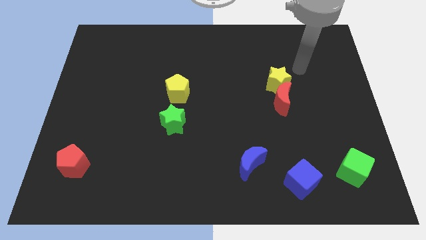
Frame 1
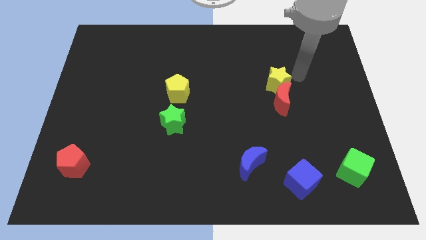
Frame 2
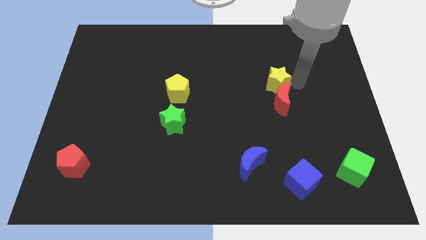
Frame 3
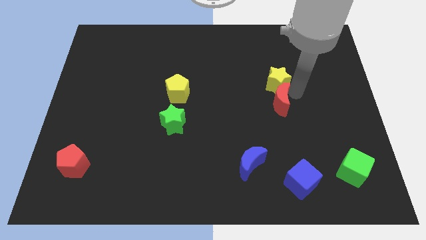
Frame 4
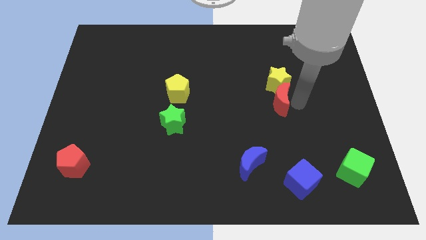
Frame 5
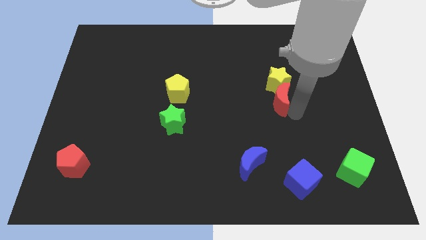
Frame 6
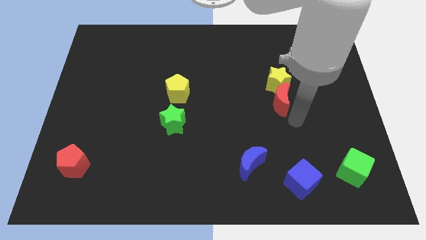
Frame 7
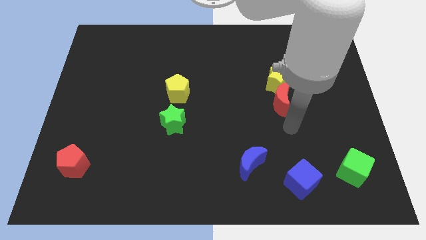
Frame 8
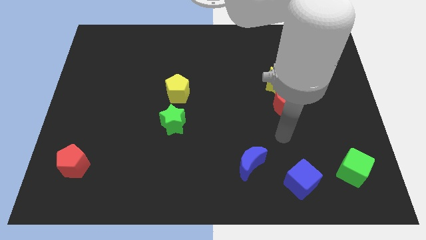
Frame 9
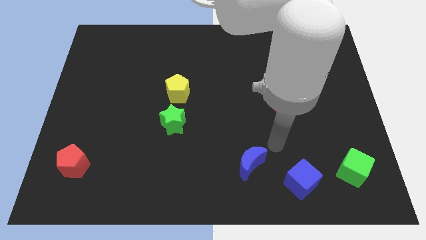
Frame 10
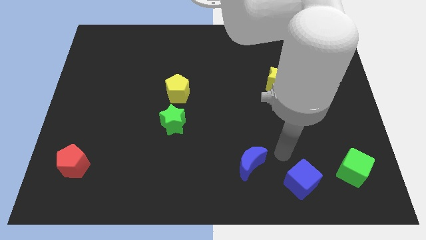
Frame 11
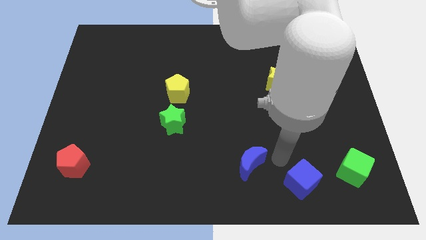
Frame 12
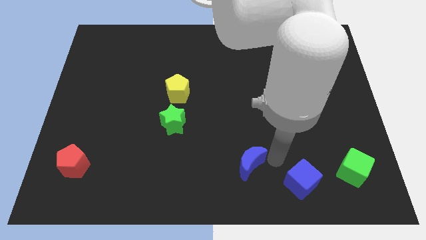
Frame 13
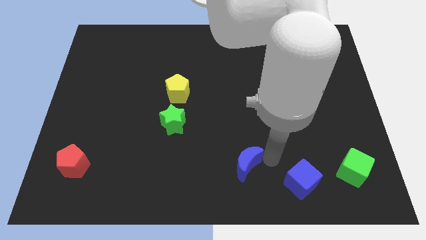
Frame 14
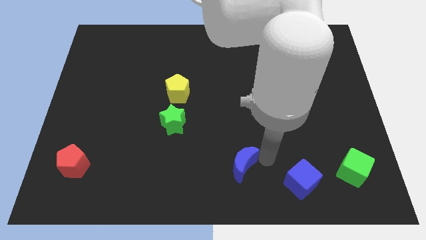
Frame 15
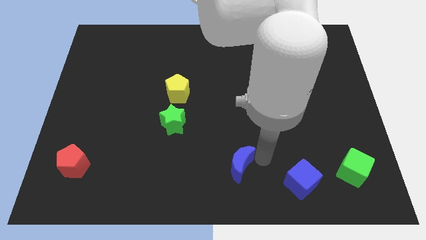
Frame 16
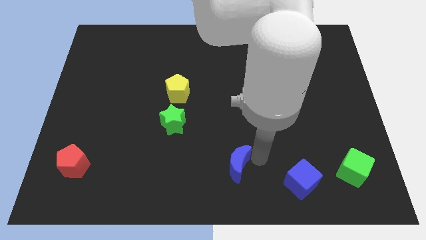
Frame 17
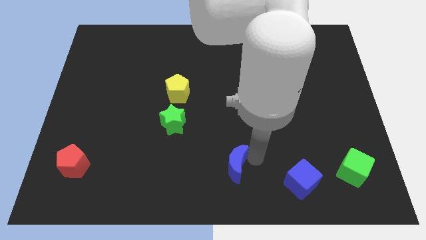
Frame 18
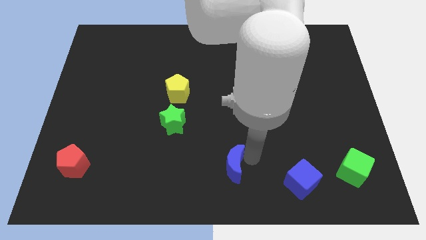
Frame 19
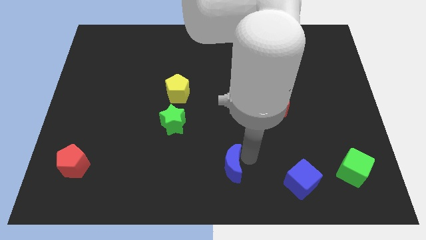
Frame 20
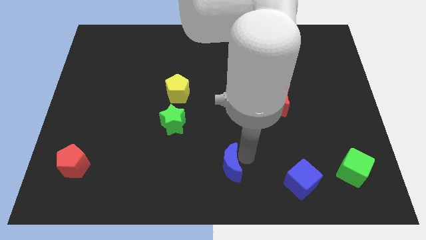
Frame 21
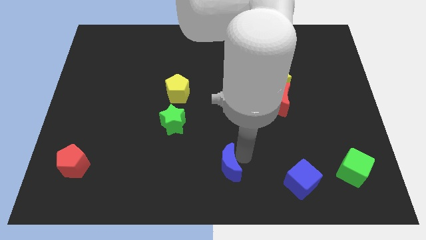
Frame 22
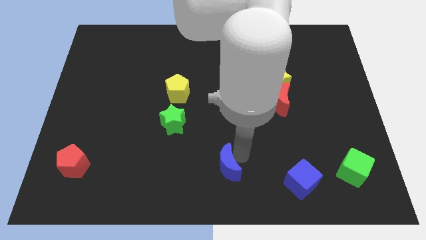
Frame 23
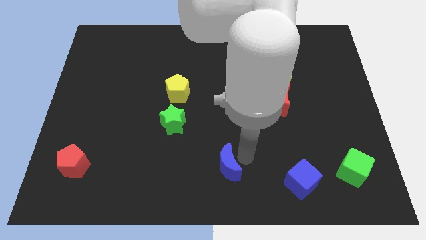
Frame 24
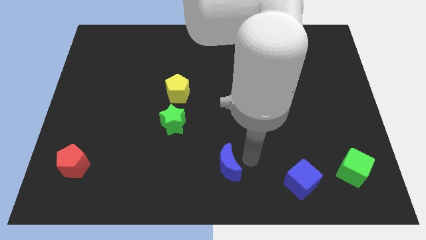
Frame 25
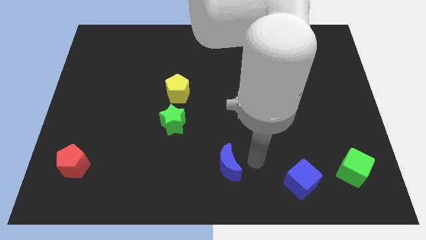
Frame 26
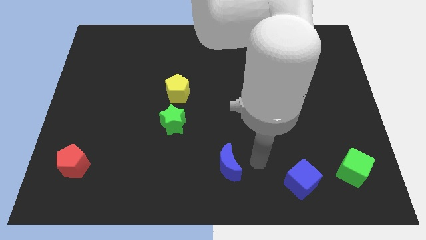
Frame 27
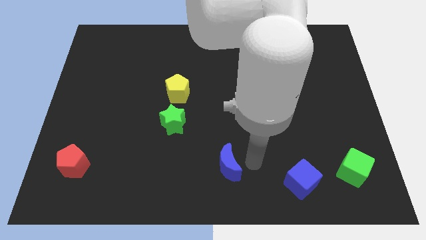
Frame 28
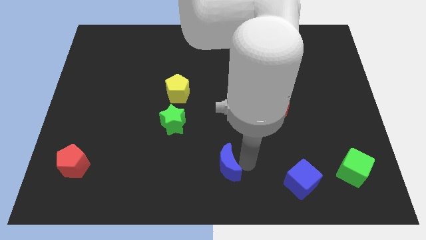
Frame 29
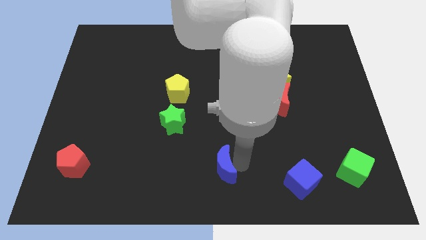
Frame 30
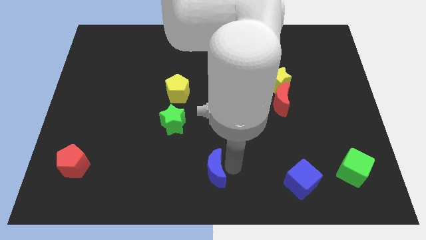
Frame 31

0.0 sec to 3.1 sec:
move the blue moon to the left a little bit

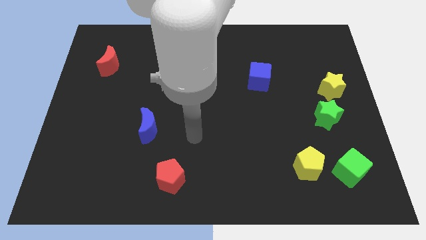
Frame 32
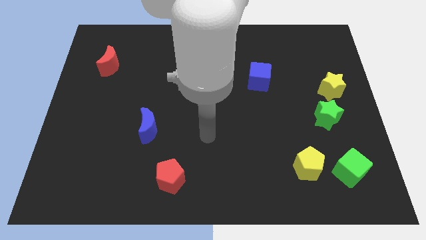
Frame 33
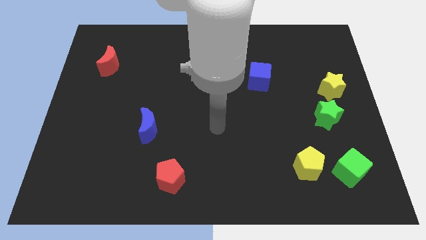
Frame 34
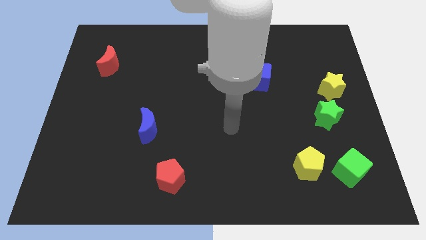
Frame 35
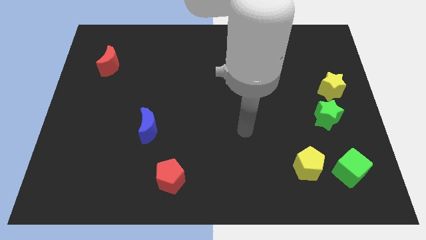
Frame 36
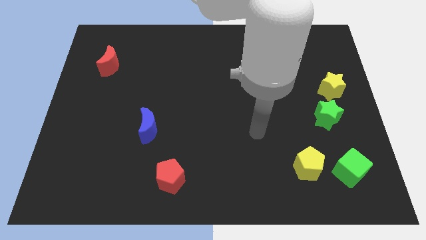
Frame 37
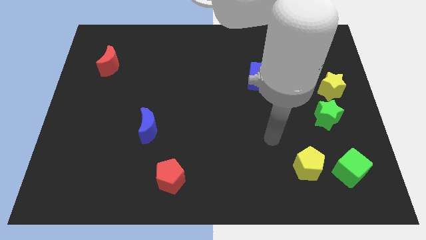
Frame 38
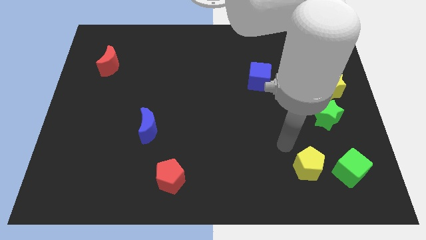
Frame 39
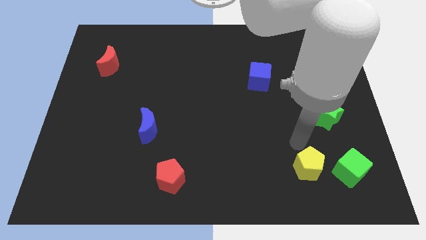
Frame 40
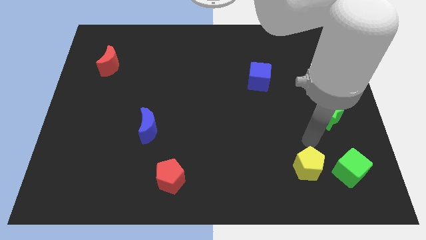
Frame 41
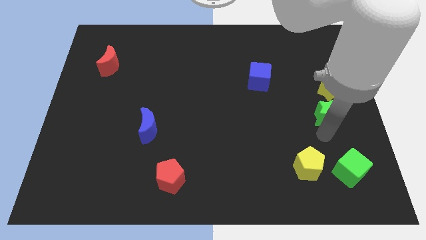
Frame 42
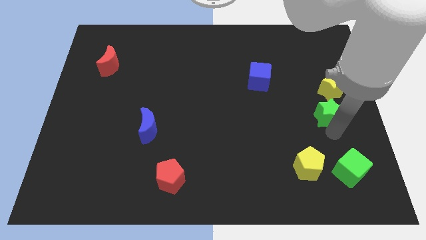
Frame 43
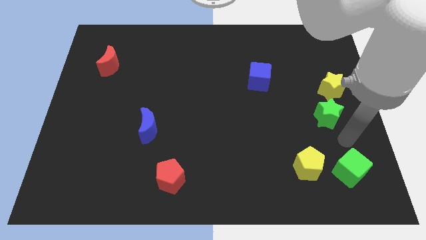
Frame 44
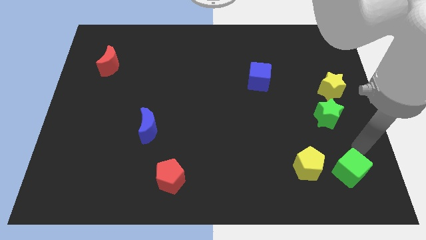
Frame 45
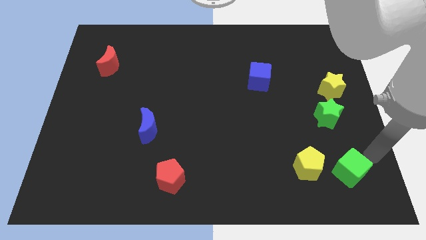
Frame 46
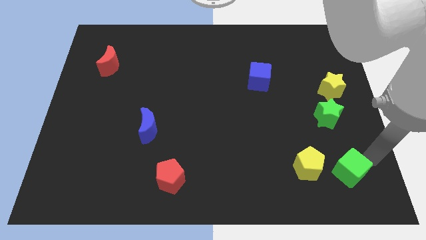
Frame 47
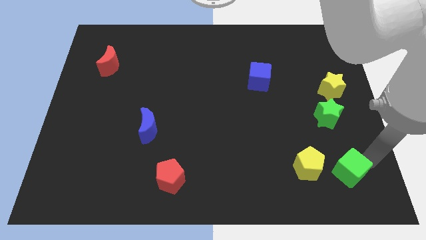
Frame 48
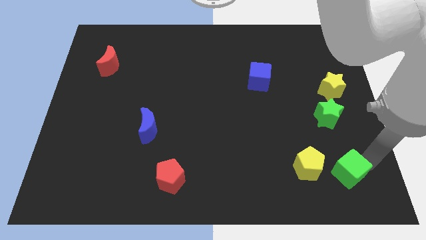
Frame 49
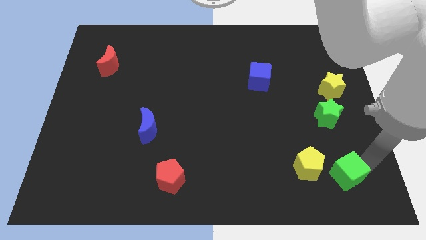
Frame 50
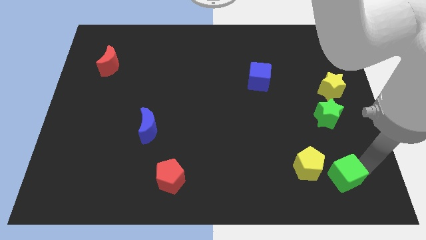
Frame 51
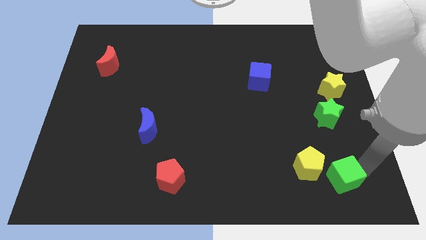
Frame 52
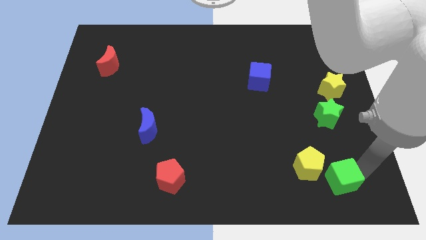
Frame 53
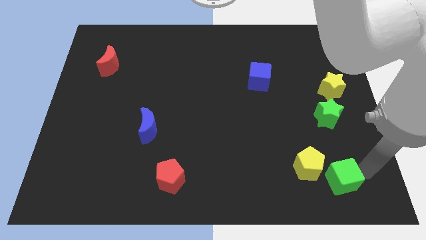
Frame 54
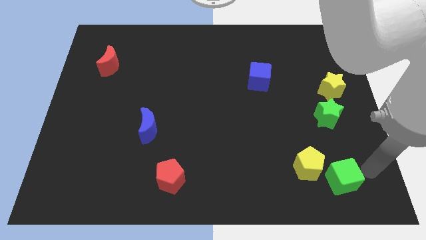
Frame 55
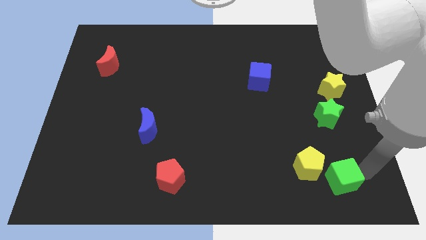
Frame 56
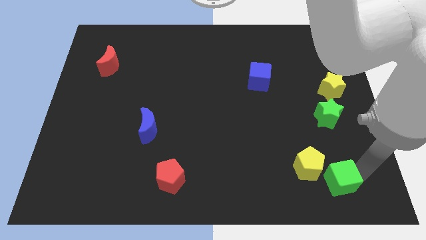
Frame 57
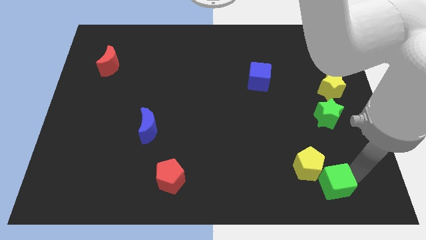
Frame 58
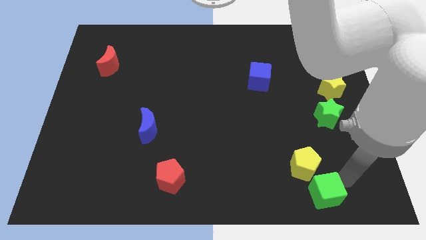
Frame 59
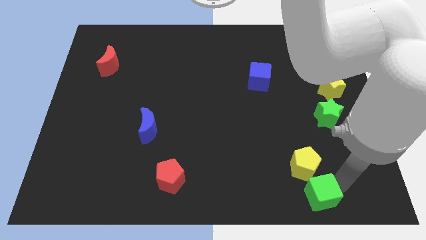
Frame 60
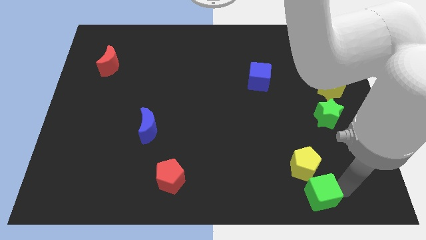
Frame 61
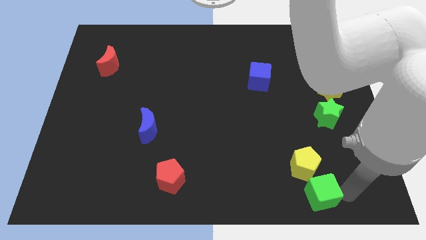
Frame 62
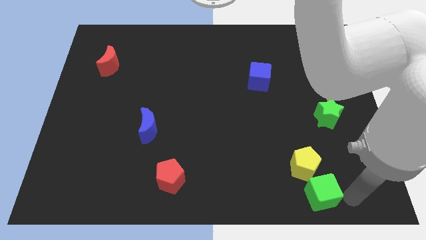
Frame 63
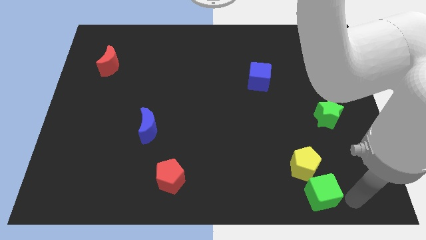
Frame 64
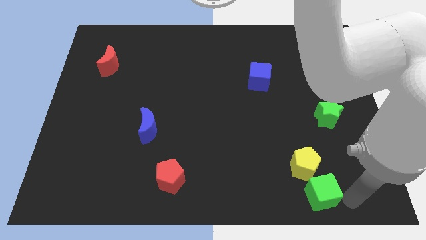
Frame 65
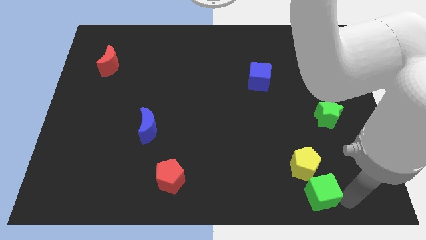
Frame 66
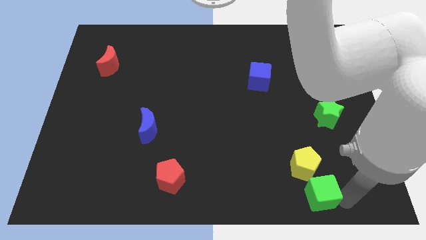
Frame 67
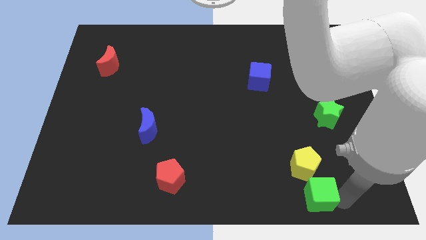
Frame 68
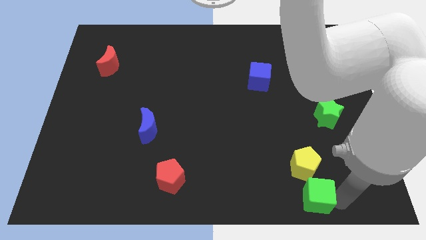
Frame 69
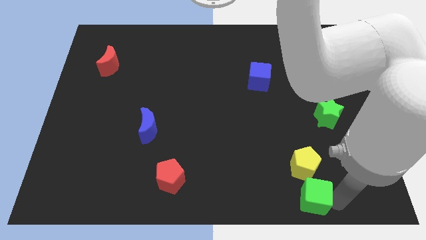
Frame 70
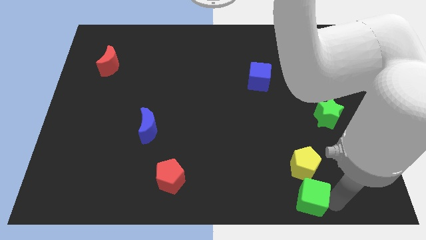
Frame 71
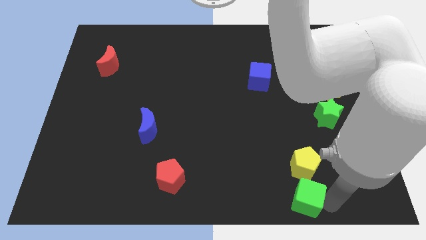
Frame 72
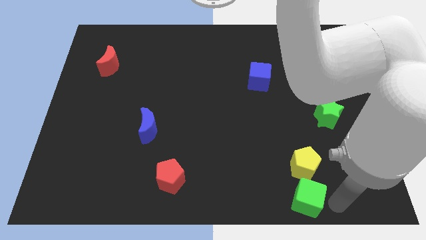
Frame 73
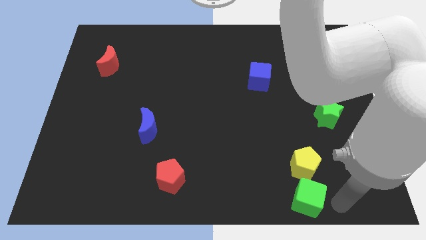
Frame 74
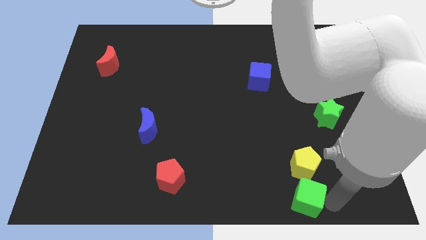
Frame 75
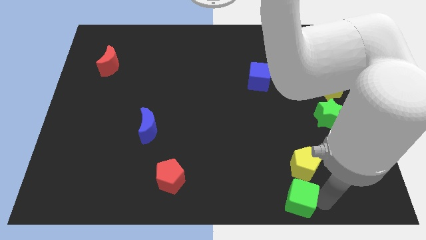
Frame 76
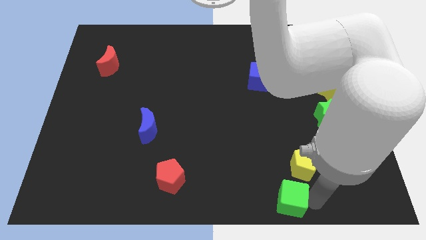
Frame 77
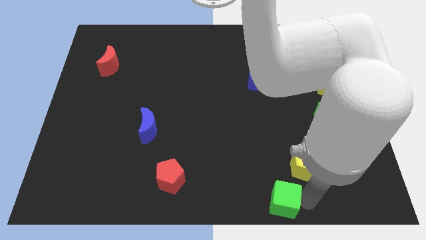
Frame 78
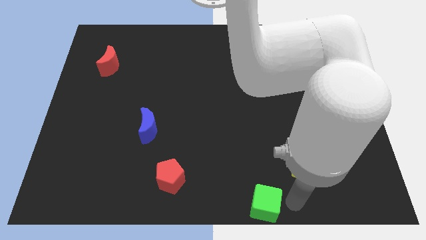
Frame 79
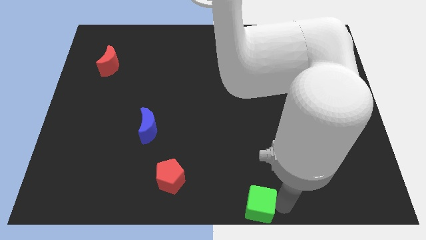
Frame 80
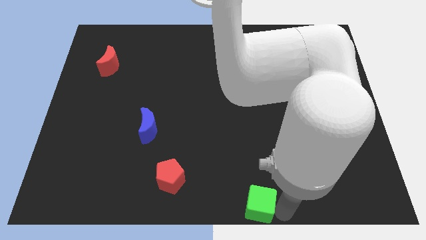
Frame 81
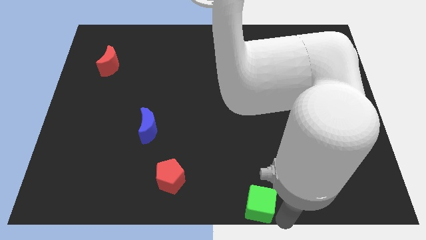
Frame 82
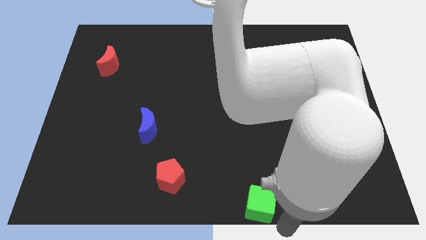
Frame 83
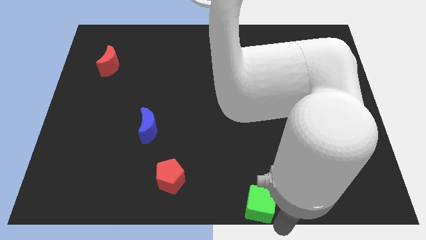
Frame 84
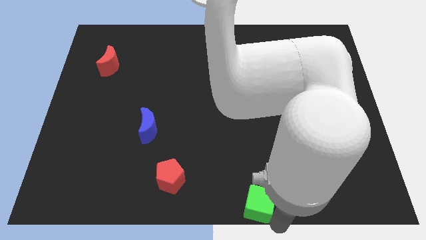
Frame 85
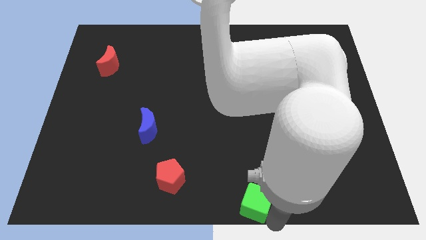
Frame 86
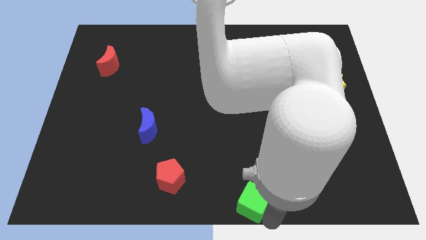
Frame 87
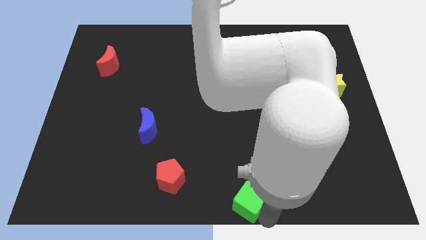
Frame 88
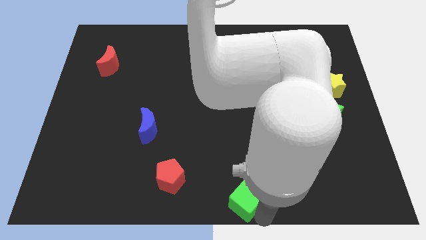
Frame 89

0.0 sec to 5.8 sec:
move the green cube left
